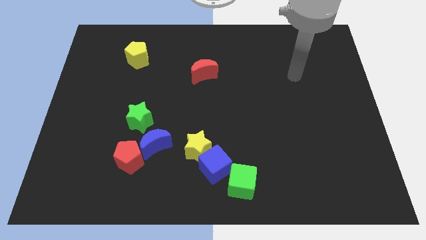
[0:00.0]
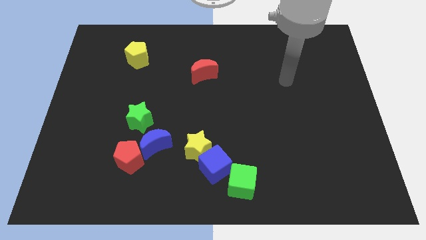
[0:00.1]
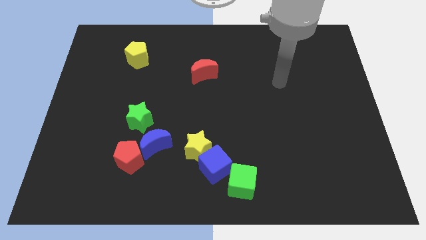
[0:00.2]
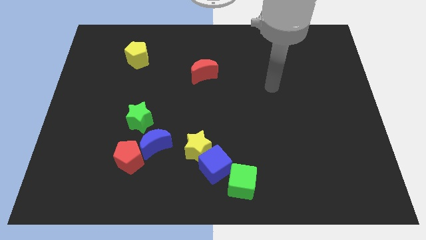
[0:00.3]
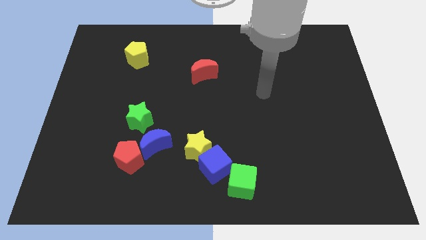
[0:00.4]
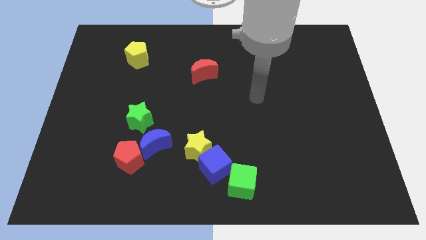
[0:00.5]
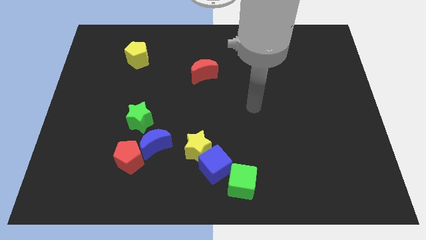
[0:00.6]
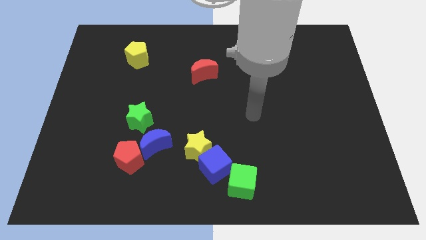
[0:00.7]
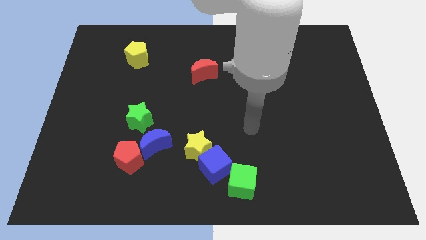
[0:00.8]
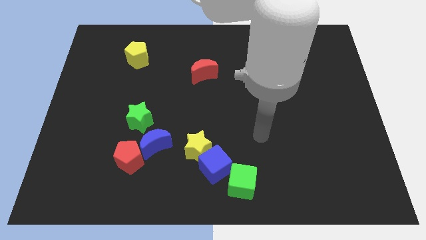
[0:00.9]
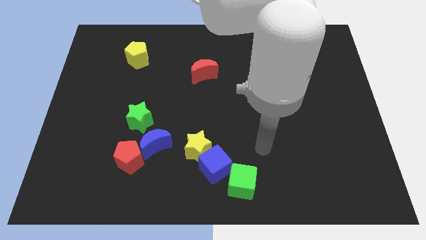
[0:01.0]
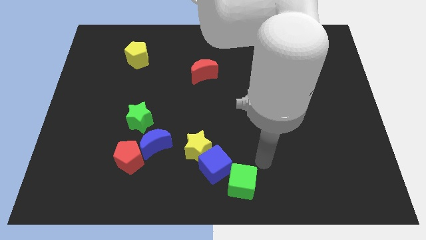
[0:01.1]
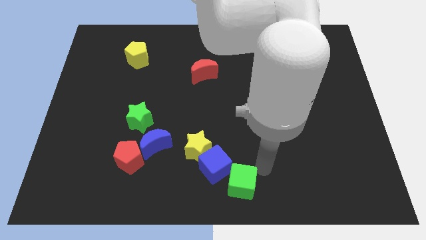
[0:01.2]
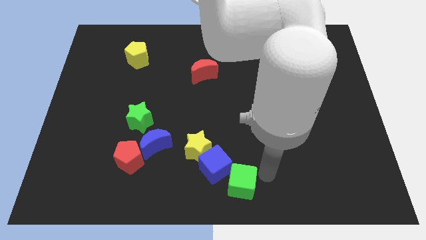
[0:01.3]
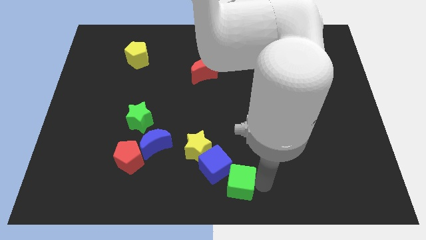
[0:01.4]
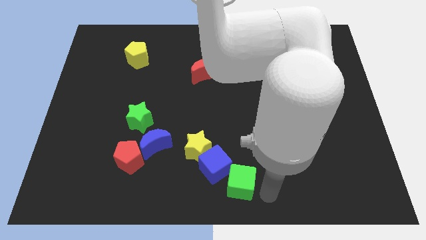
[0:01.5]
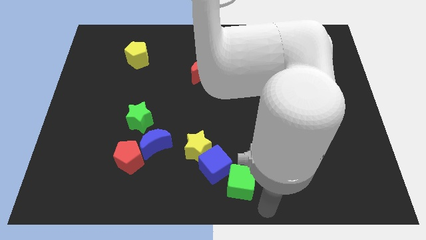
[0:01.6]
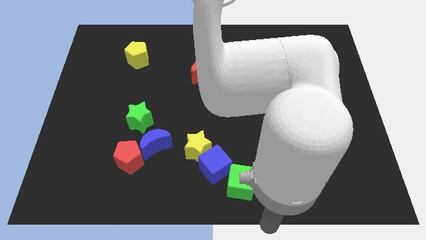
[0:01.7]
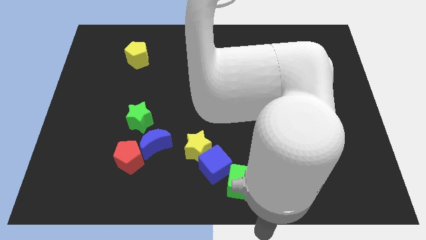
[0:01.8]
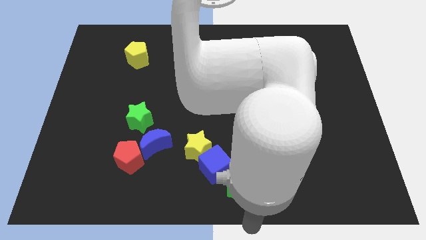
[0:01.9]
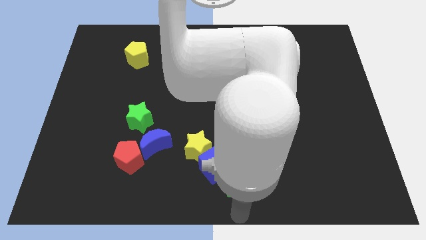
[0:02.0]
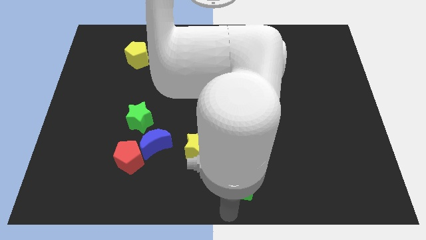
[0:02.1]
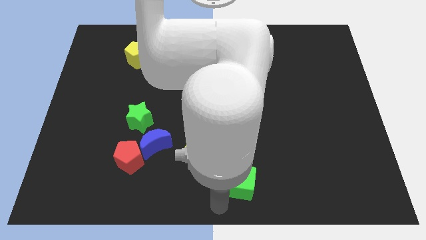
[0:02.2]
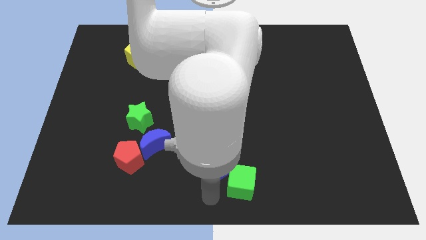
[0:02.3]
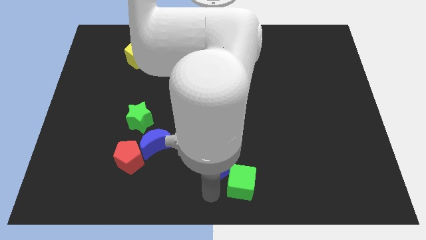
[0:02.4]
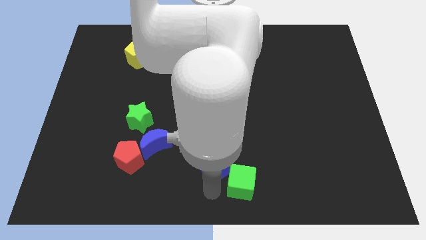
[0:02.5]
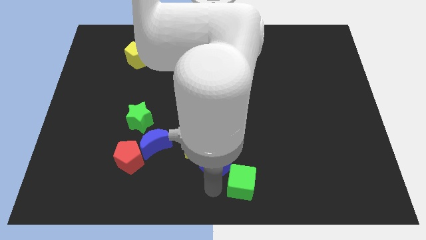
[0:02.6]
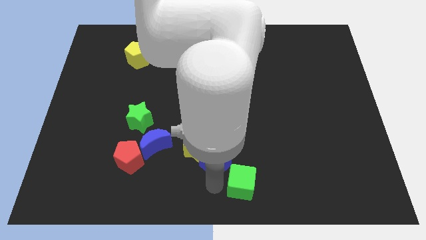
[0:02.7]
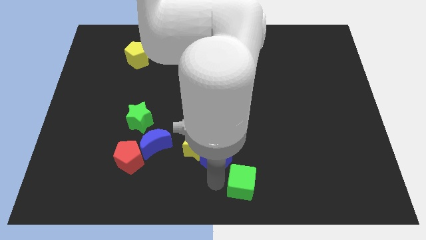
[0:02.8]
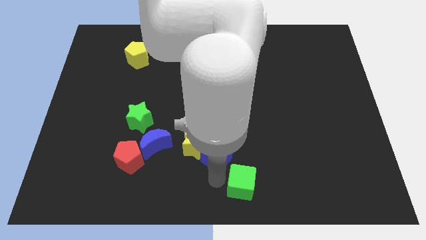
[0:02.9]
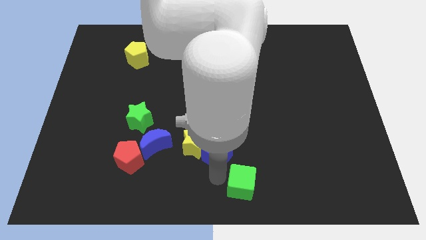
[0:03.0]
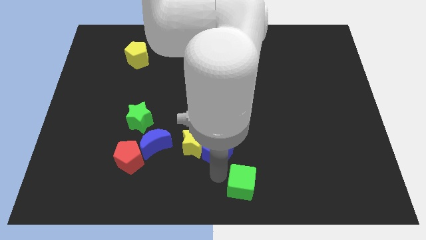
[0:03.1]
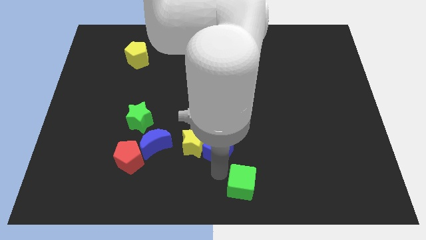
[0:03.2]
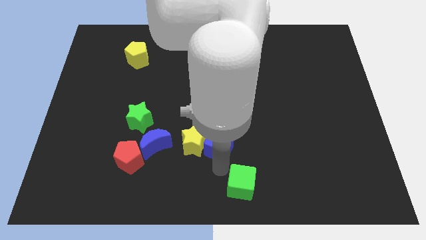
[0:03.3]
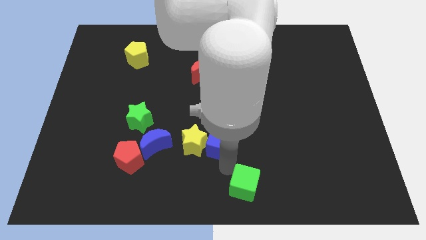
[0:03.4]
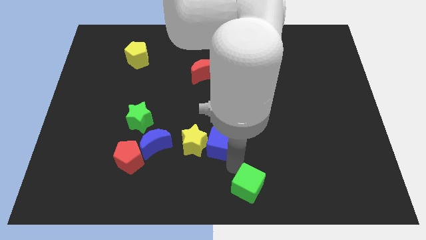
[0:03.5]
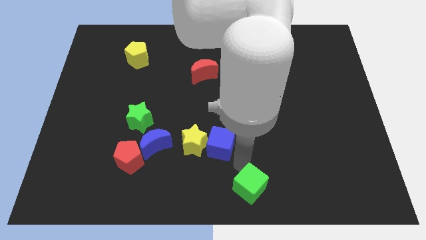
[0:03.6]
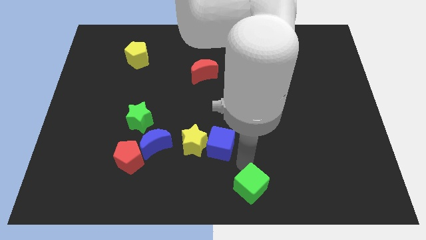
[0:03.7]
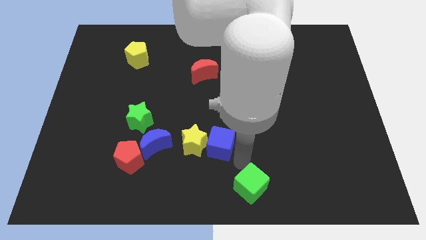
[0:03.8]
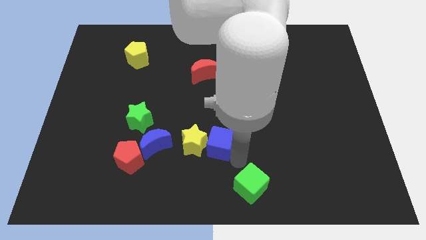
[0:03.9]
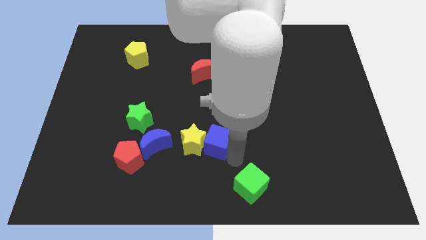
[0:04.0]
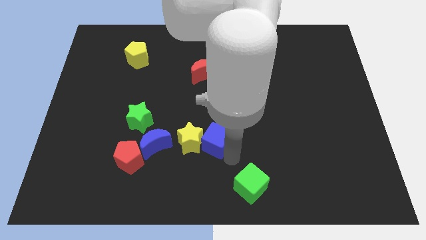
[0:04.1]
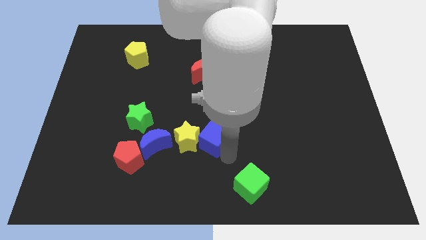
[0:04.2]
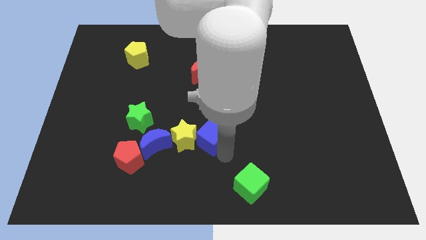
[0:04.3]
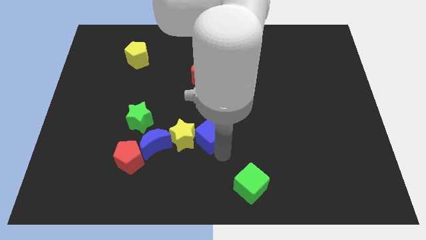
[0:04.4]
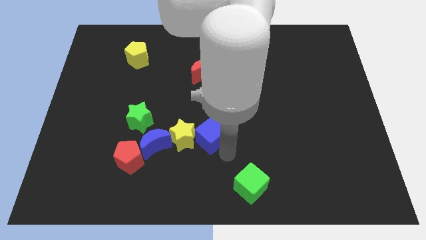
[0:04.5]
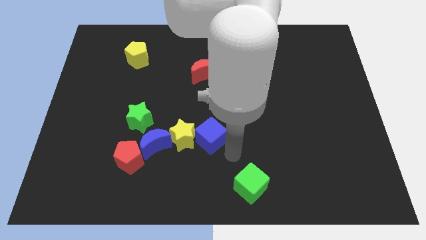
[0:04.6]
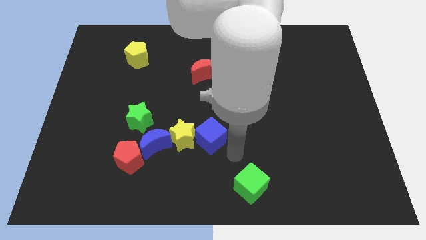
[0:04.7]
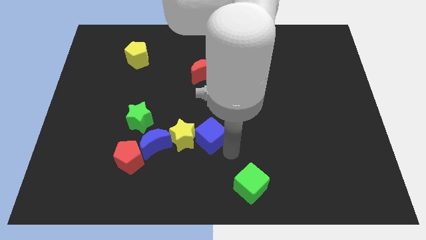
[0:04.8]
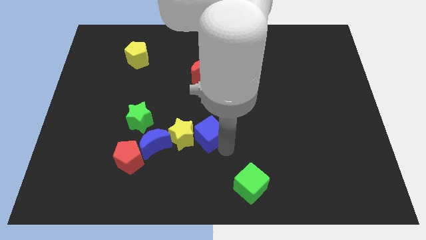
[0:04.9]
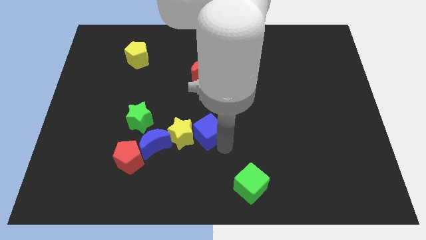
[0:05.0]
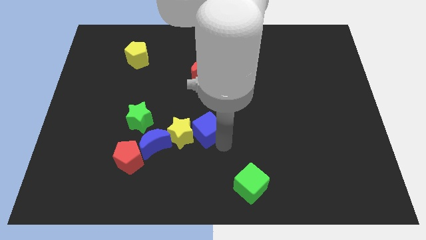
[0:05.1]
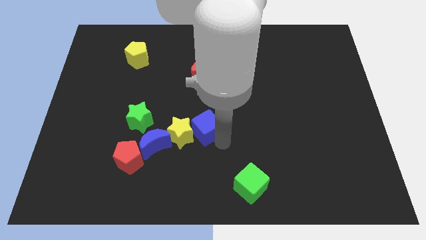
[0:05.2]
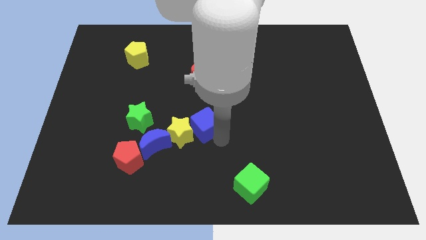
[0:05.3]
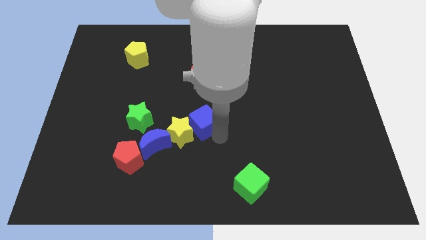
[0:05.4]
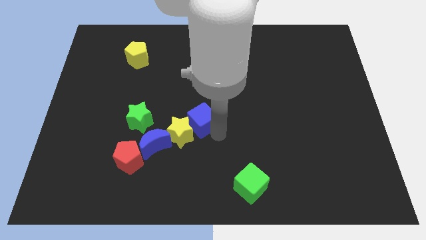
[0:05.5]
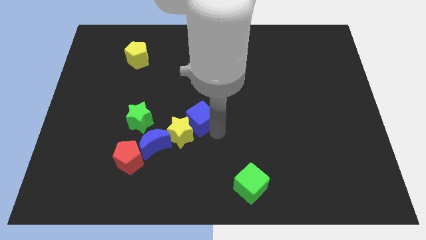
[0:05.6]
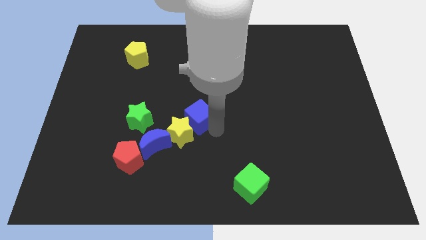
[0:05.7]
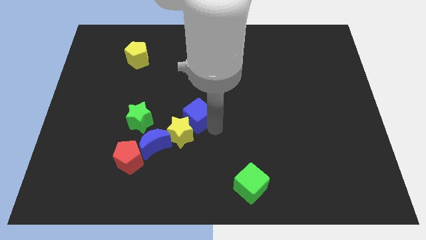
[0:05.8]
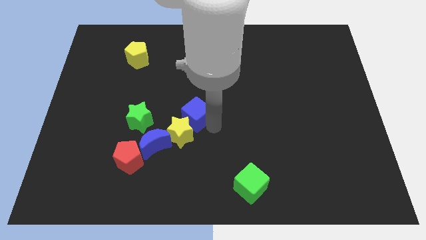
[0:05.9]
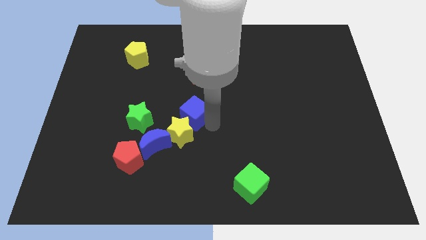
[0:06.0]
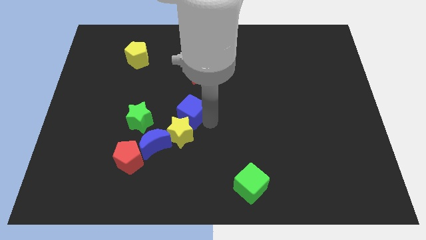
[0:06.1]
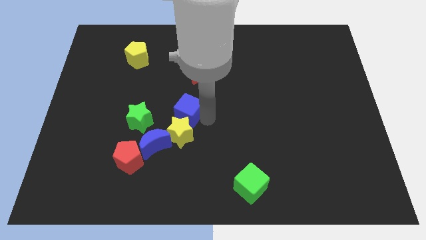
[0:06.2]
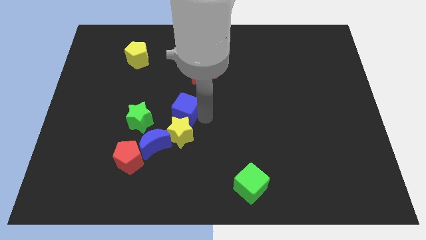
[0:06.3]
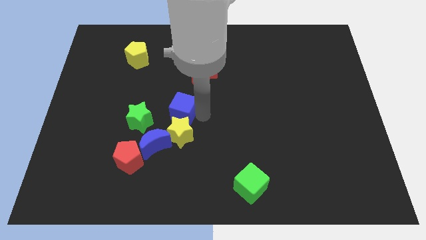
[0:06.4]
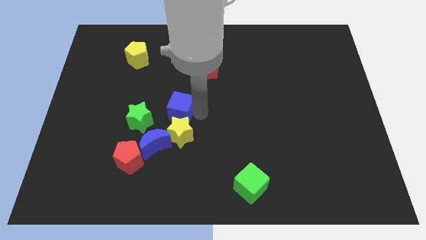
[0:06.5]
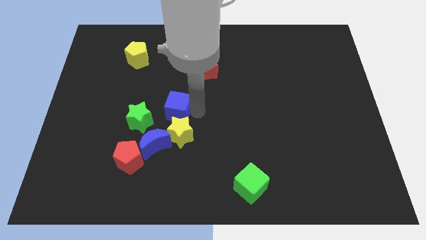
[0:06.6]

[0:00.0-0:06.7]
push the blue cube above the blue moon
